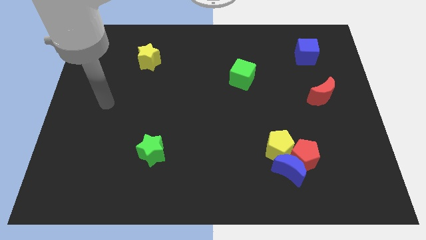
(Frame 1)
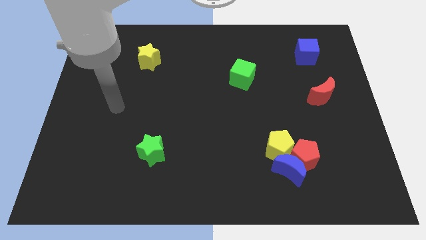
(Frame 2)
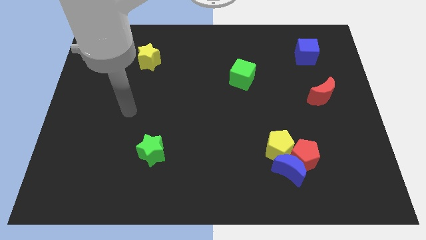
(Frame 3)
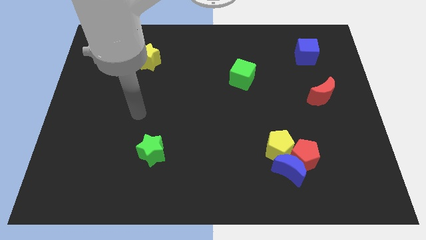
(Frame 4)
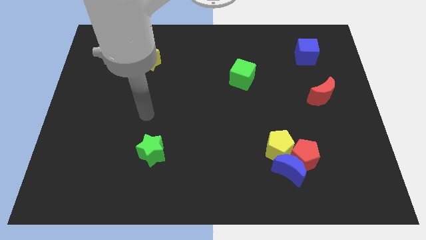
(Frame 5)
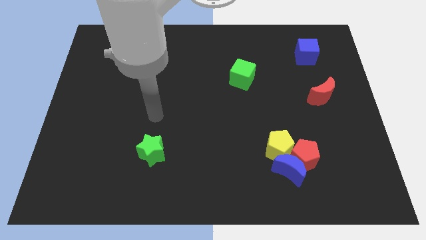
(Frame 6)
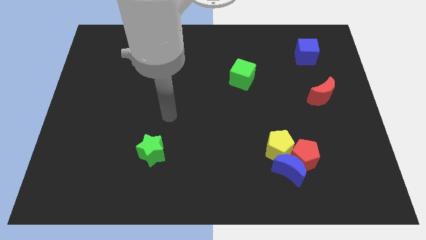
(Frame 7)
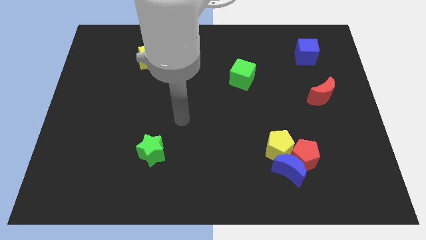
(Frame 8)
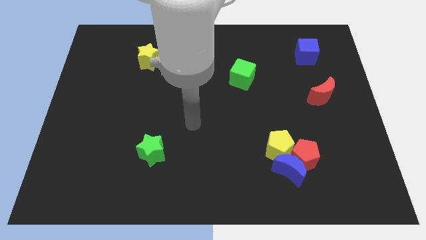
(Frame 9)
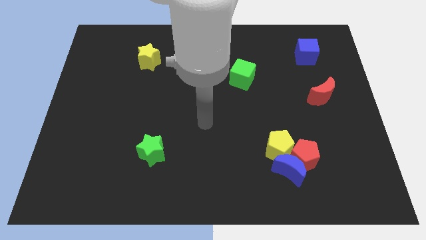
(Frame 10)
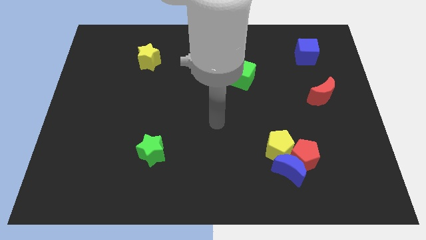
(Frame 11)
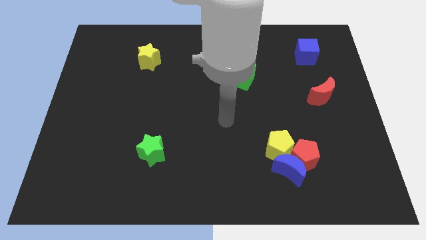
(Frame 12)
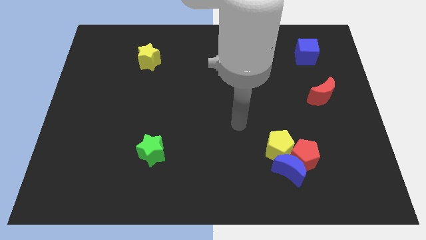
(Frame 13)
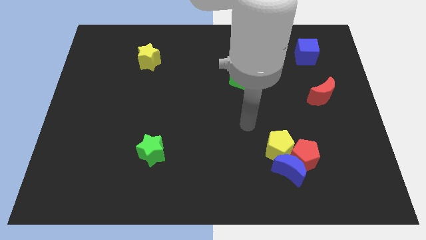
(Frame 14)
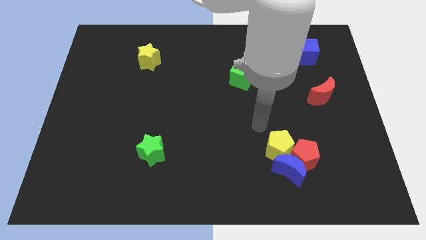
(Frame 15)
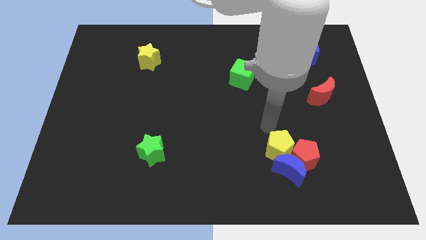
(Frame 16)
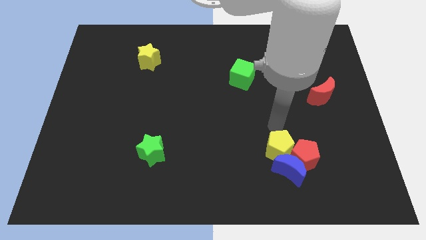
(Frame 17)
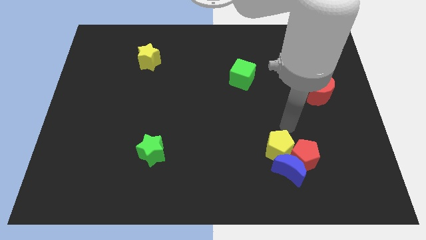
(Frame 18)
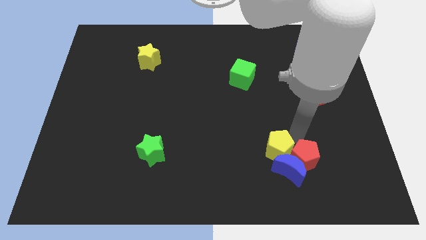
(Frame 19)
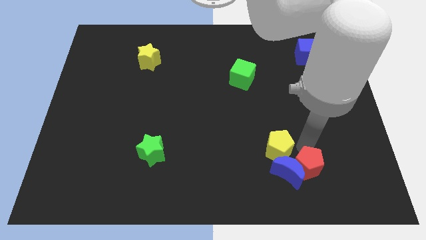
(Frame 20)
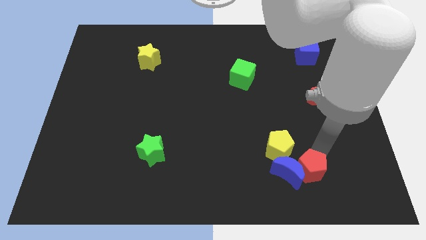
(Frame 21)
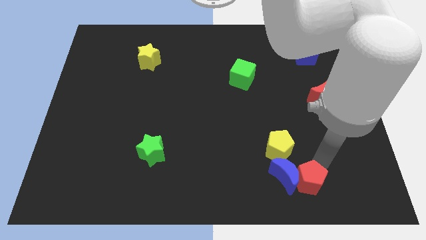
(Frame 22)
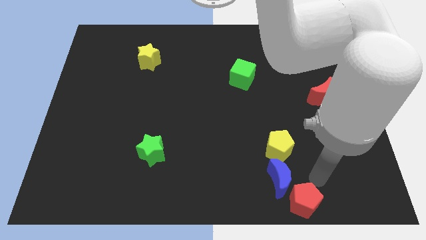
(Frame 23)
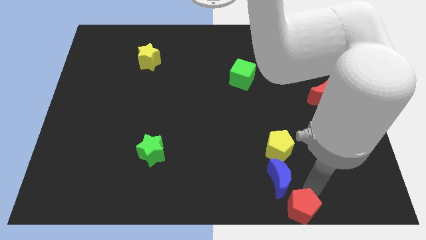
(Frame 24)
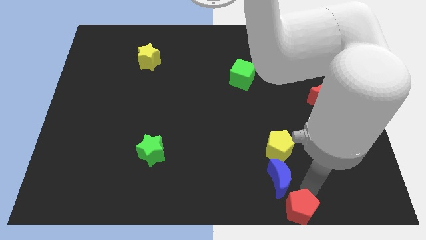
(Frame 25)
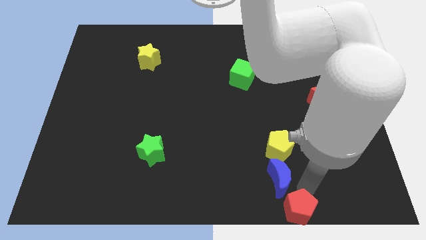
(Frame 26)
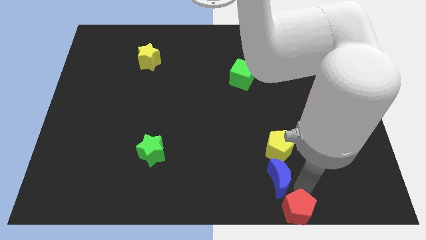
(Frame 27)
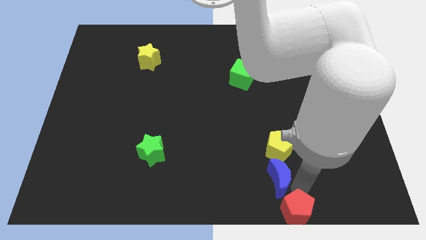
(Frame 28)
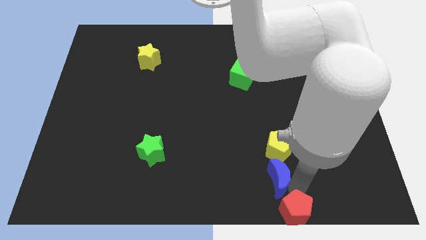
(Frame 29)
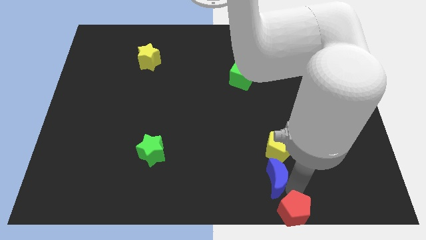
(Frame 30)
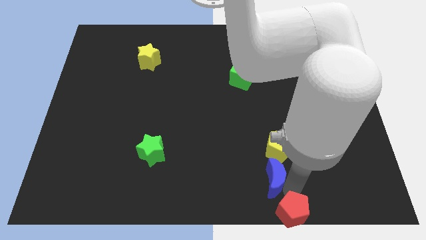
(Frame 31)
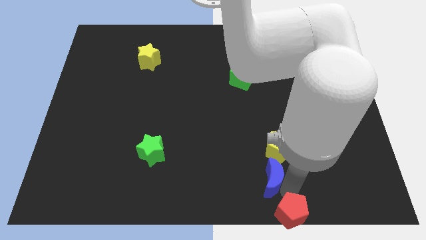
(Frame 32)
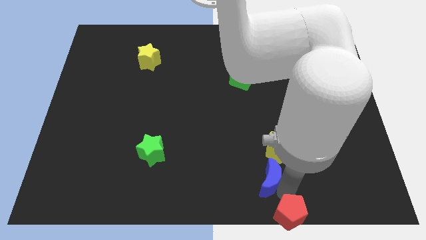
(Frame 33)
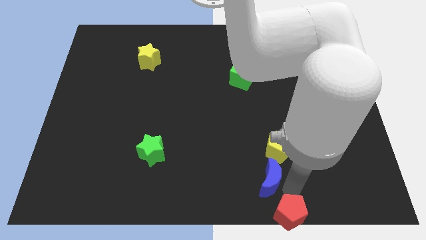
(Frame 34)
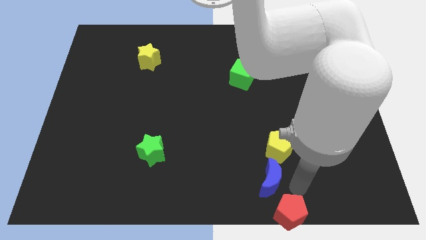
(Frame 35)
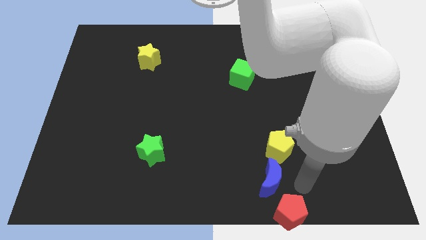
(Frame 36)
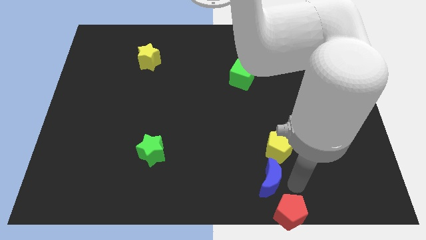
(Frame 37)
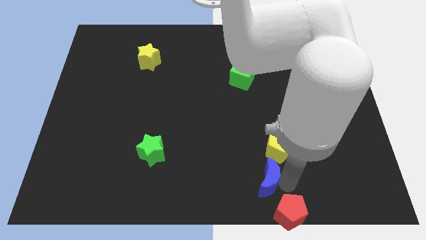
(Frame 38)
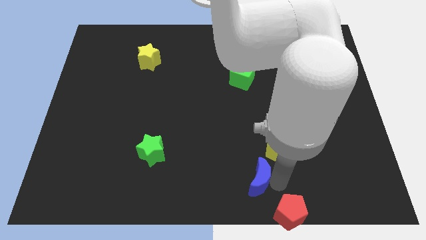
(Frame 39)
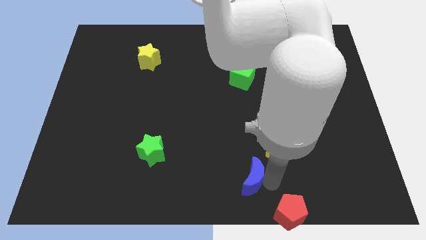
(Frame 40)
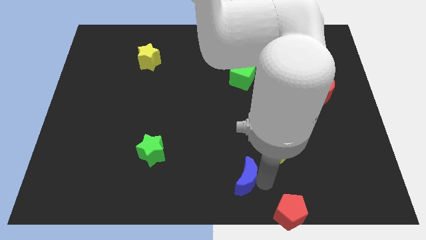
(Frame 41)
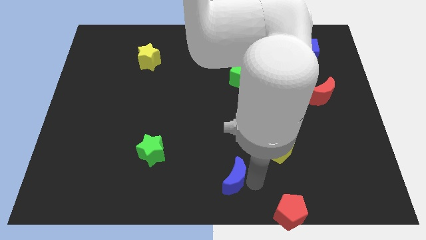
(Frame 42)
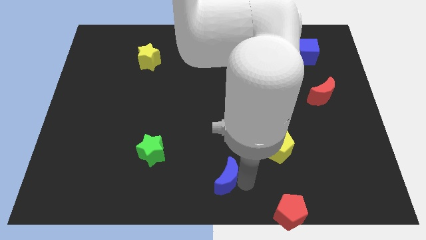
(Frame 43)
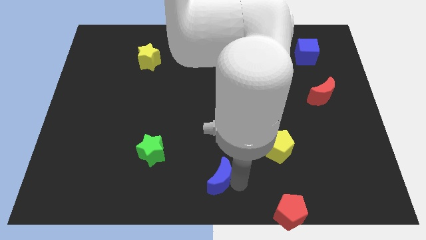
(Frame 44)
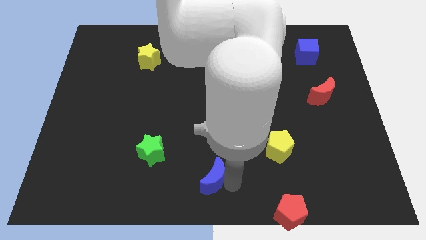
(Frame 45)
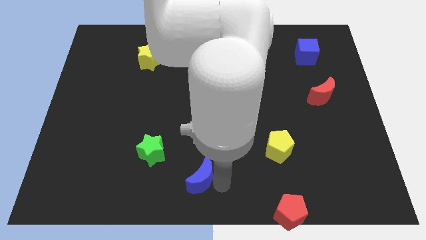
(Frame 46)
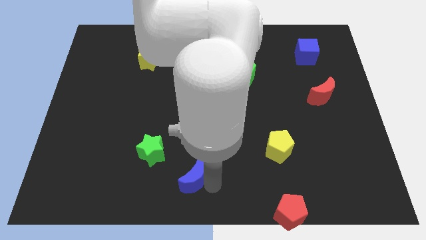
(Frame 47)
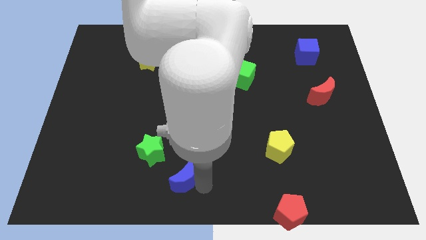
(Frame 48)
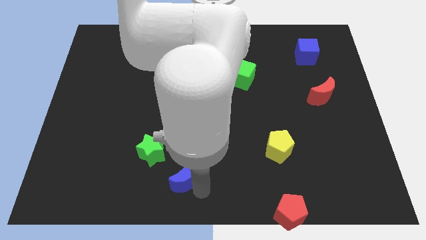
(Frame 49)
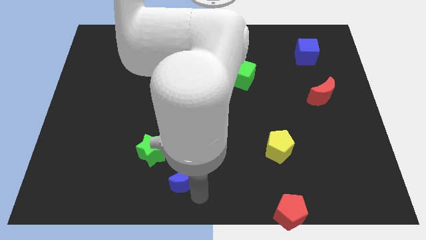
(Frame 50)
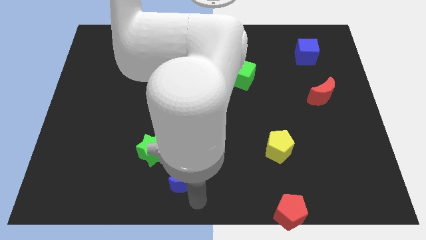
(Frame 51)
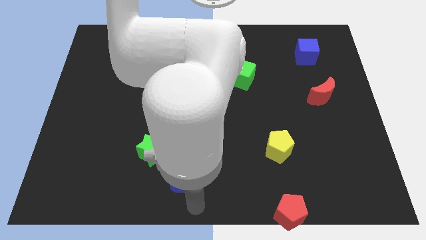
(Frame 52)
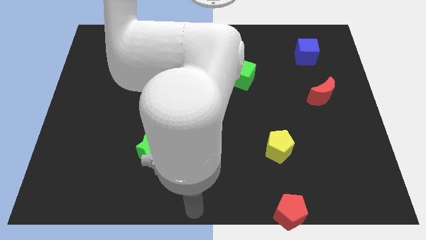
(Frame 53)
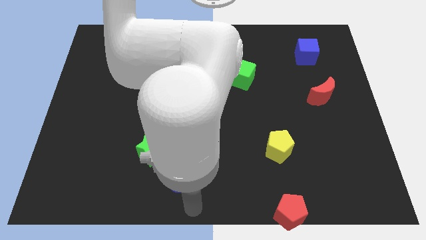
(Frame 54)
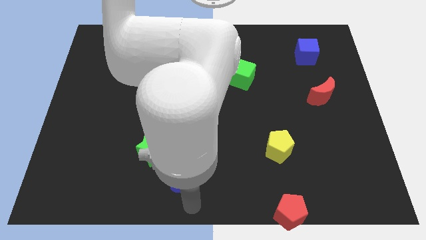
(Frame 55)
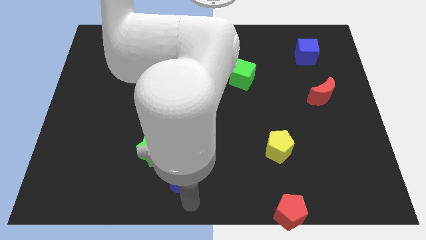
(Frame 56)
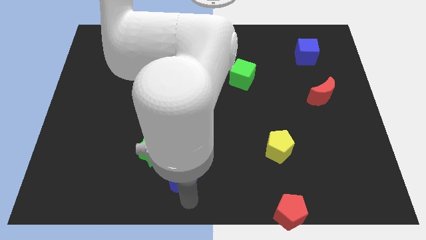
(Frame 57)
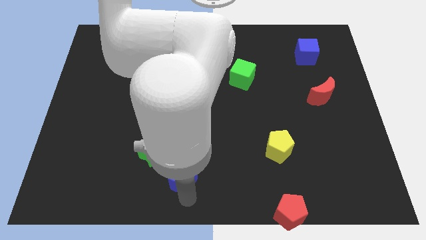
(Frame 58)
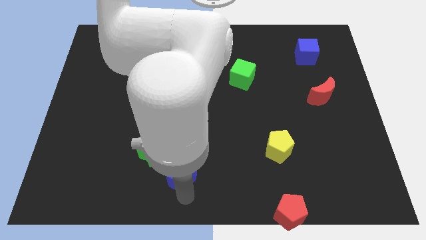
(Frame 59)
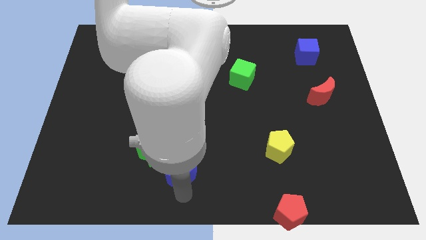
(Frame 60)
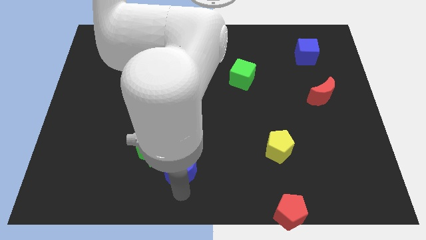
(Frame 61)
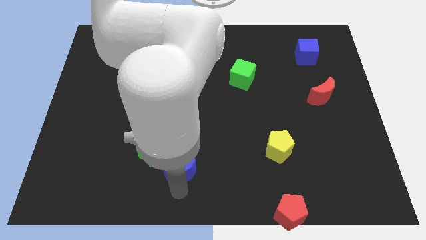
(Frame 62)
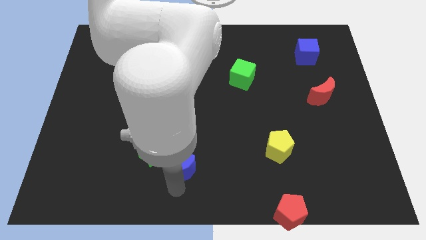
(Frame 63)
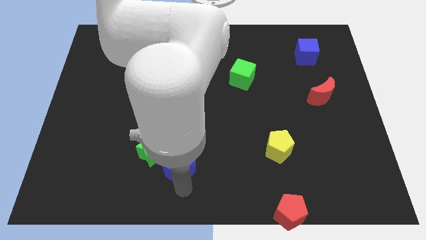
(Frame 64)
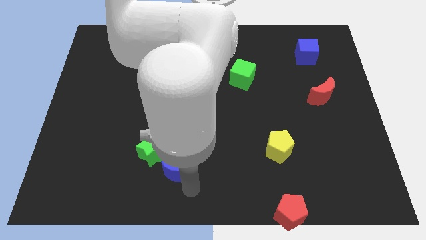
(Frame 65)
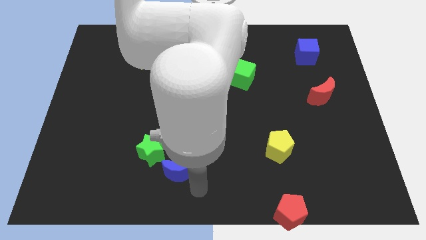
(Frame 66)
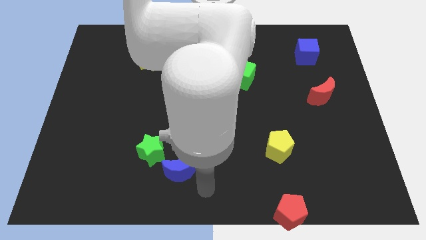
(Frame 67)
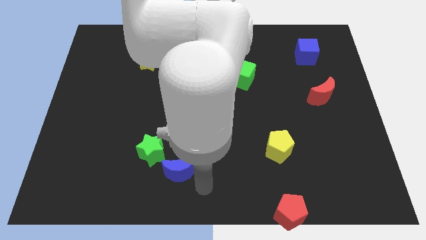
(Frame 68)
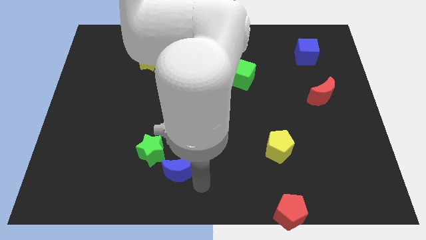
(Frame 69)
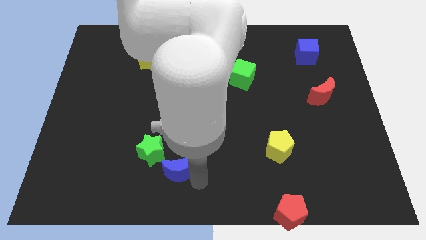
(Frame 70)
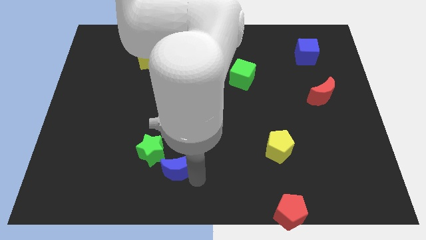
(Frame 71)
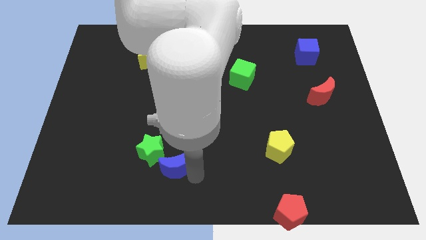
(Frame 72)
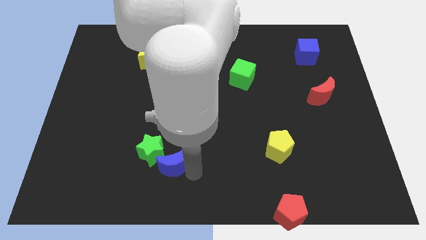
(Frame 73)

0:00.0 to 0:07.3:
move the blue moon to the green star
